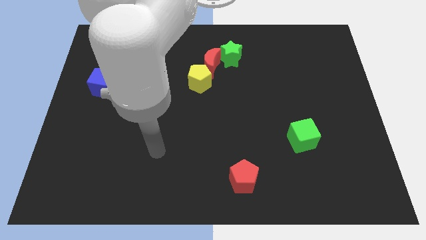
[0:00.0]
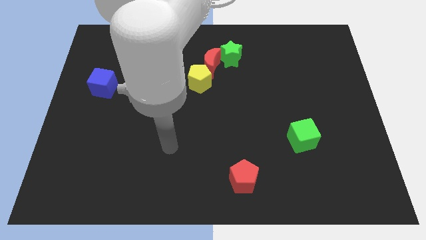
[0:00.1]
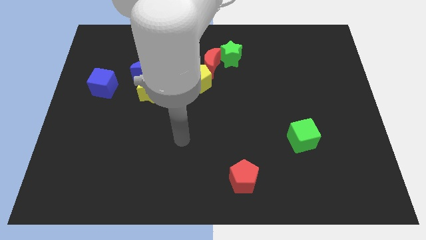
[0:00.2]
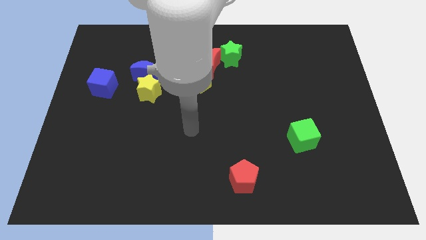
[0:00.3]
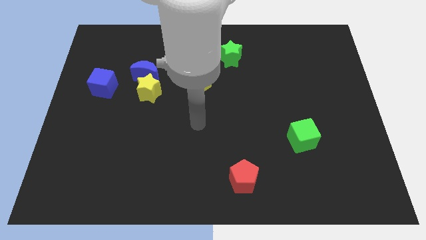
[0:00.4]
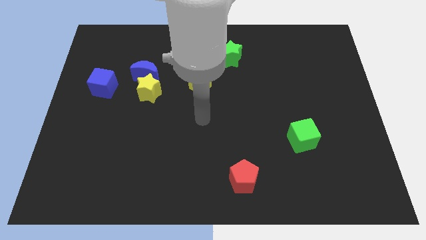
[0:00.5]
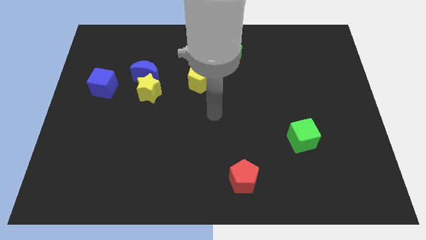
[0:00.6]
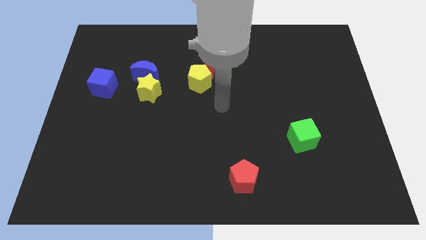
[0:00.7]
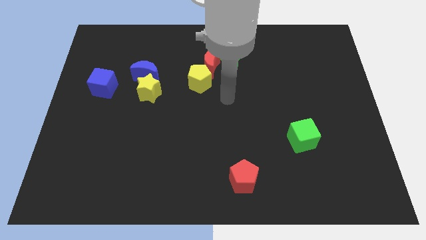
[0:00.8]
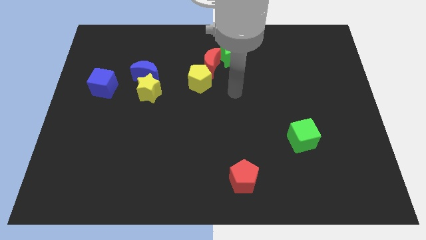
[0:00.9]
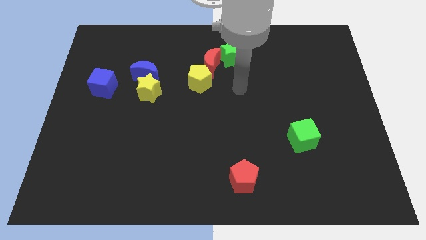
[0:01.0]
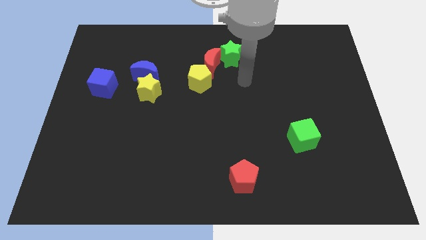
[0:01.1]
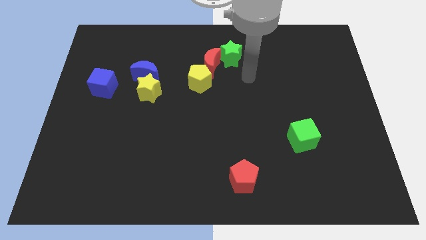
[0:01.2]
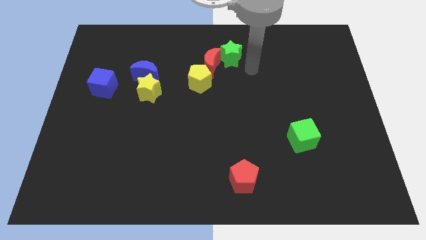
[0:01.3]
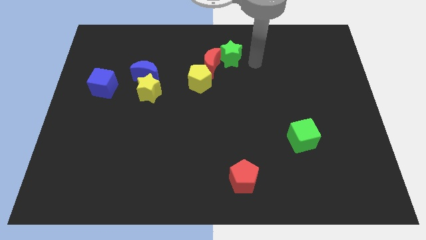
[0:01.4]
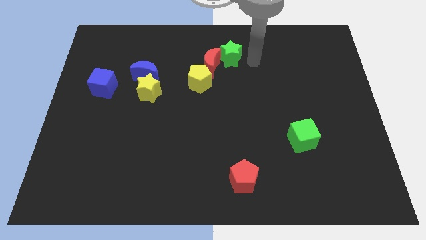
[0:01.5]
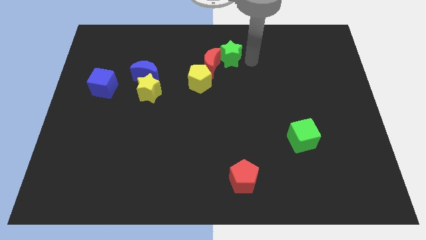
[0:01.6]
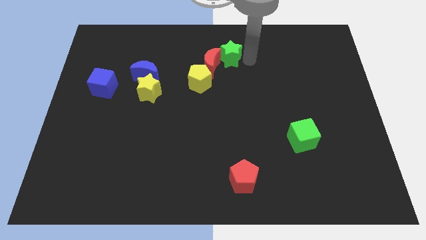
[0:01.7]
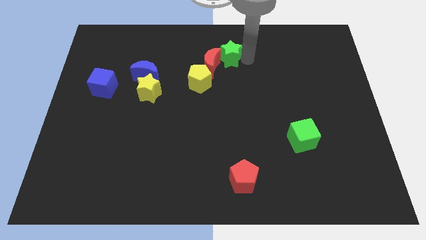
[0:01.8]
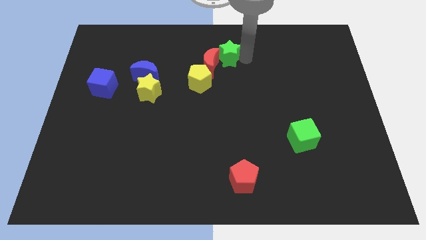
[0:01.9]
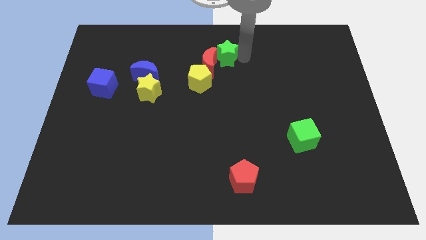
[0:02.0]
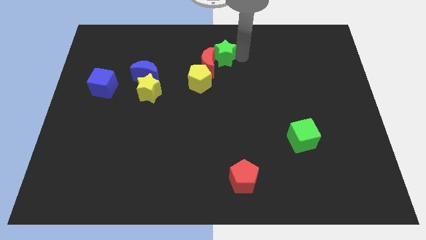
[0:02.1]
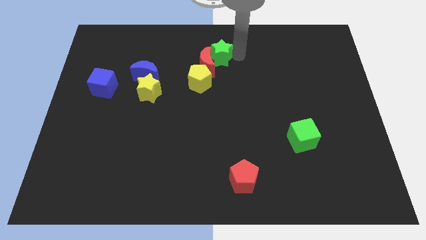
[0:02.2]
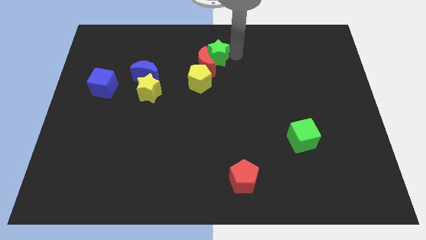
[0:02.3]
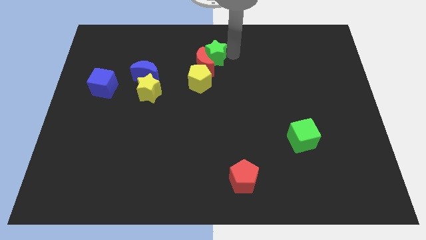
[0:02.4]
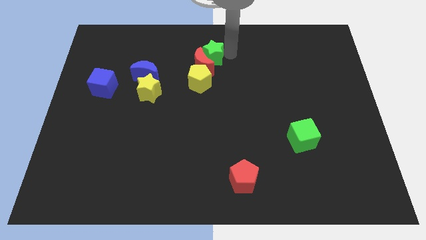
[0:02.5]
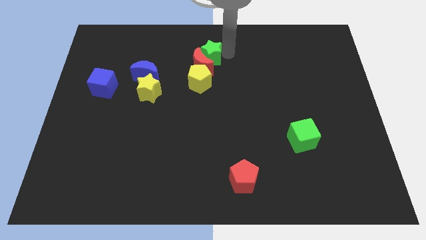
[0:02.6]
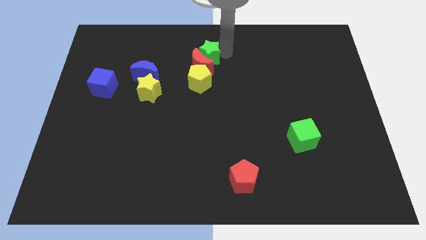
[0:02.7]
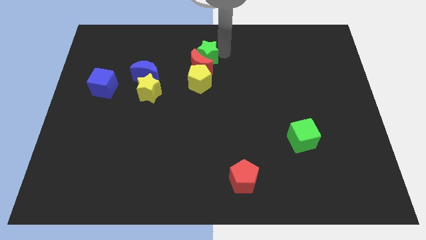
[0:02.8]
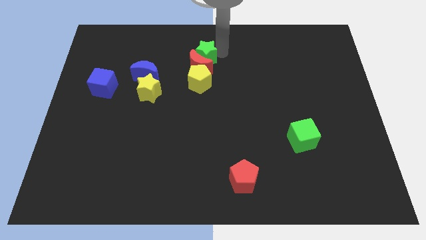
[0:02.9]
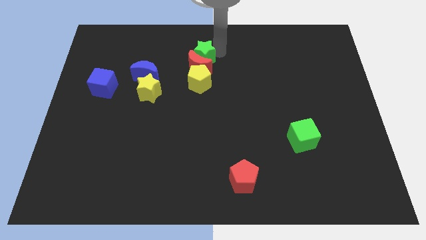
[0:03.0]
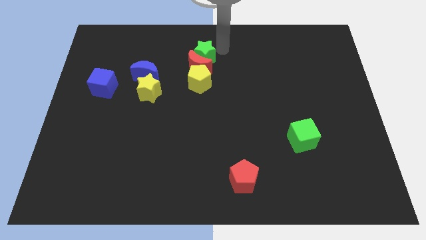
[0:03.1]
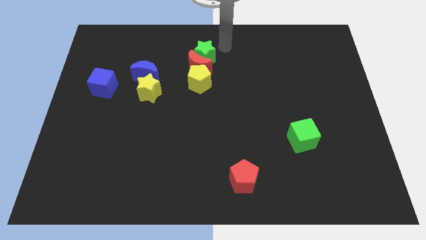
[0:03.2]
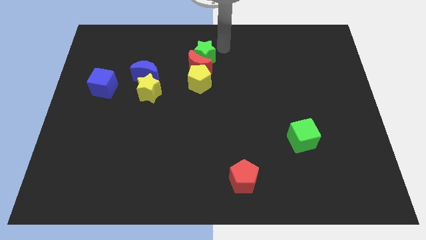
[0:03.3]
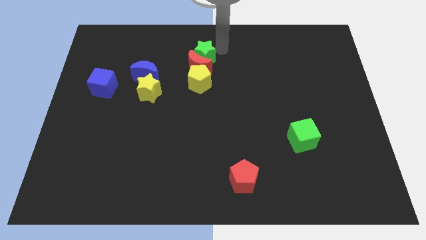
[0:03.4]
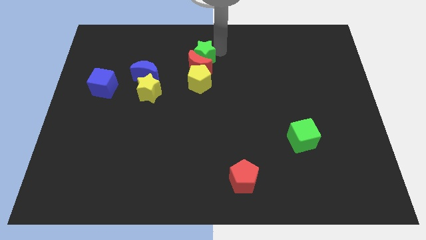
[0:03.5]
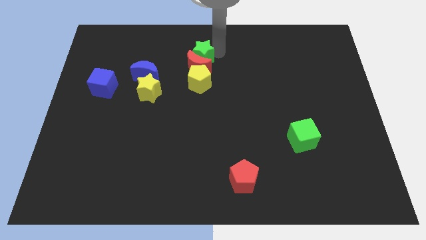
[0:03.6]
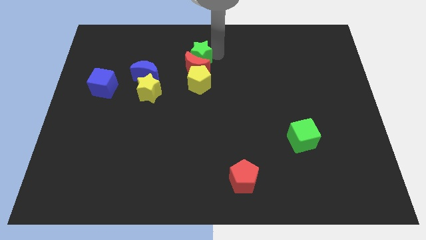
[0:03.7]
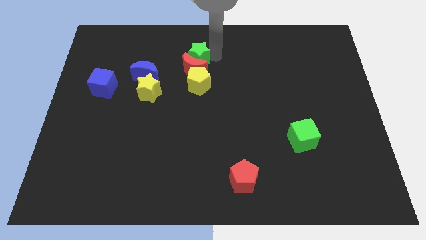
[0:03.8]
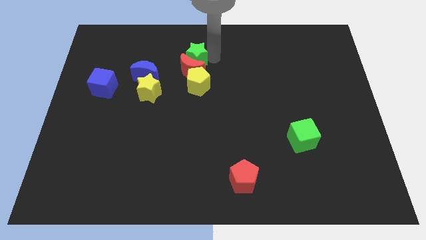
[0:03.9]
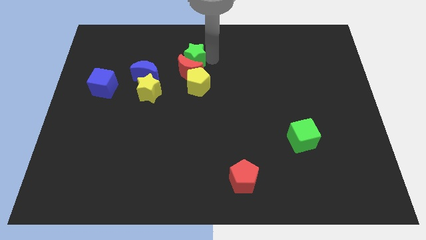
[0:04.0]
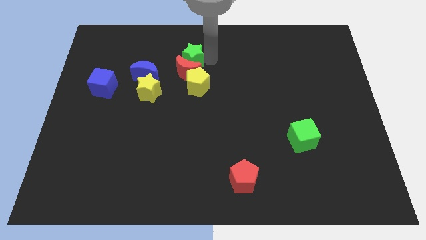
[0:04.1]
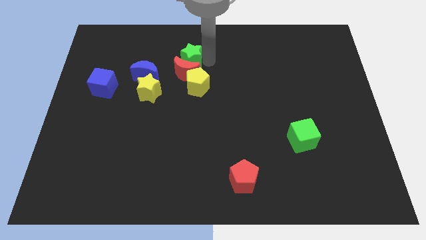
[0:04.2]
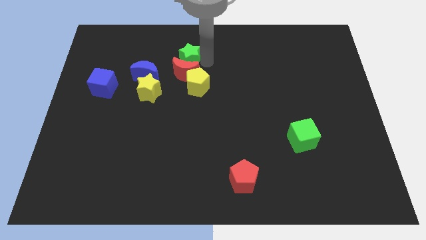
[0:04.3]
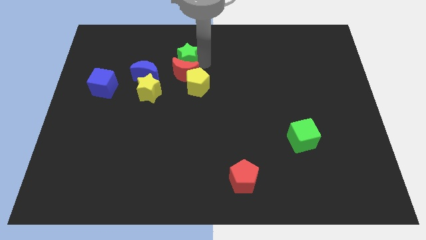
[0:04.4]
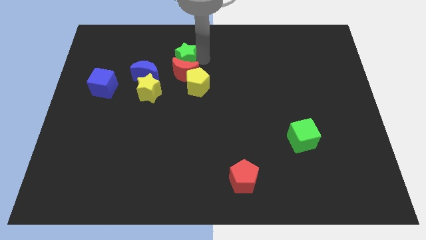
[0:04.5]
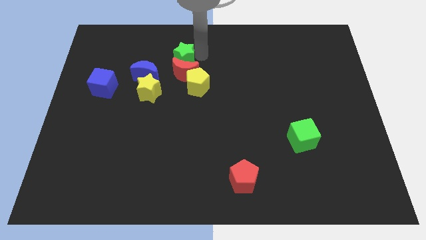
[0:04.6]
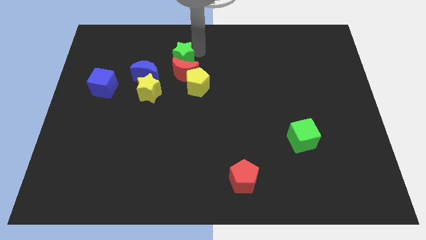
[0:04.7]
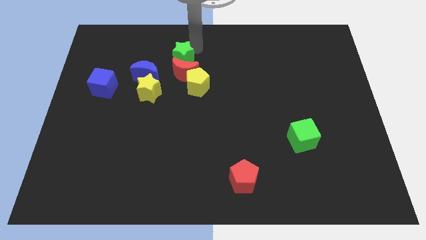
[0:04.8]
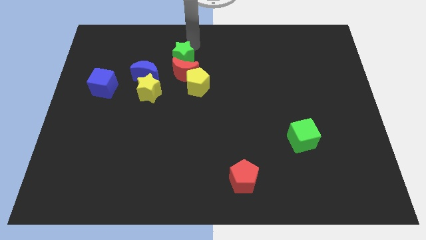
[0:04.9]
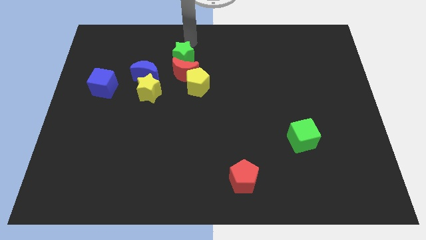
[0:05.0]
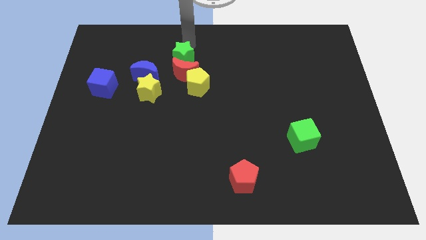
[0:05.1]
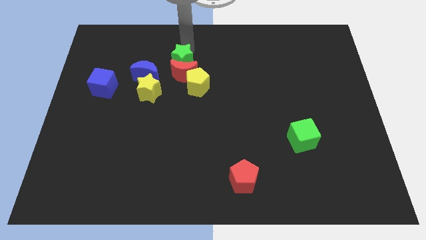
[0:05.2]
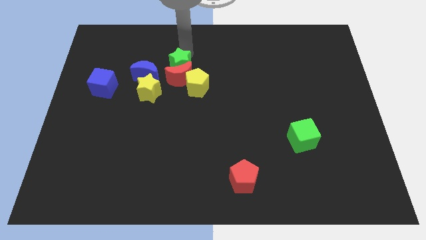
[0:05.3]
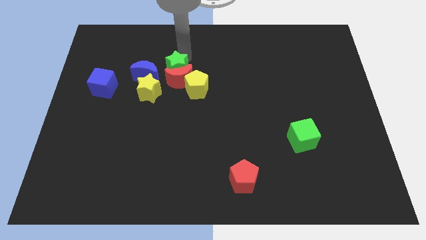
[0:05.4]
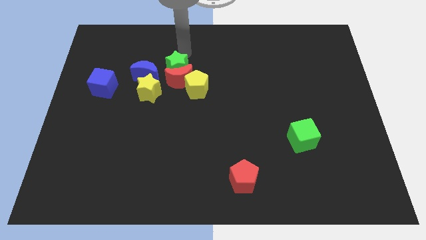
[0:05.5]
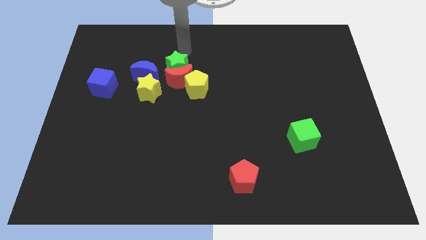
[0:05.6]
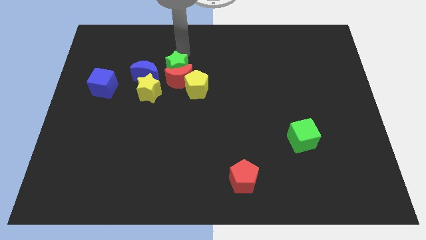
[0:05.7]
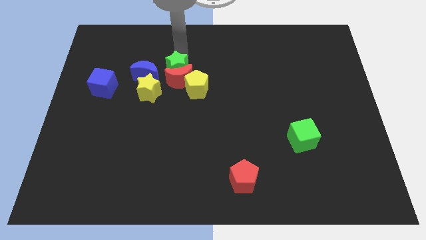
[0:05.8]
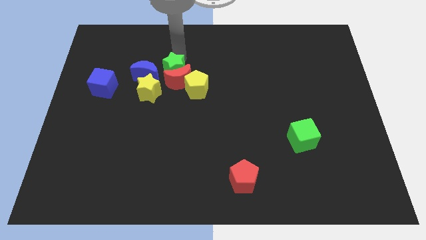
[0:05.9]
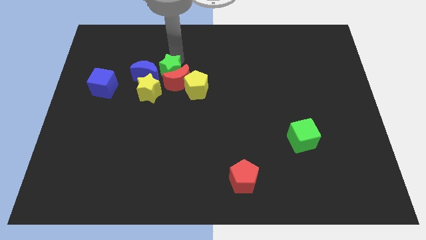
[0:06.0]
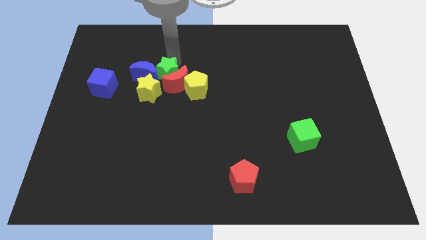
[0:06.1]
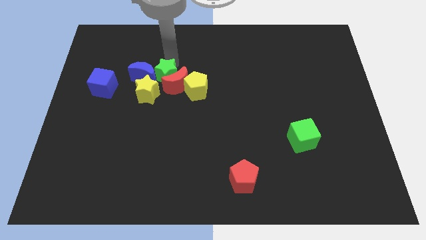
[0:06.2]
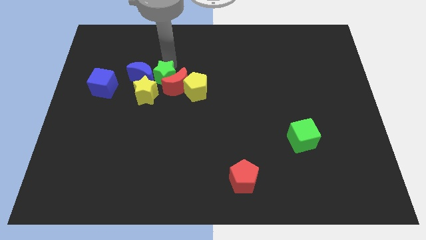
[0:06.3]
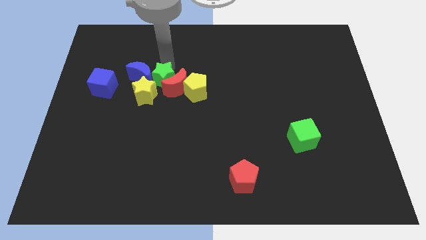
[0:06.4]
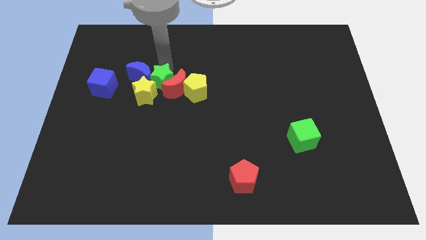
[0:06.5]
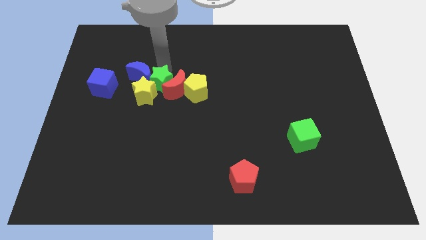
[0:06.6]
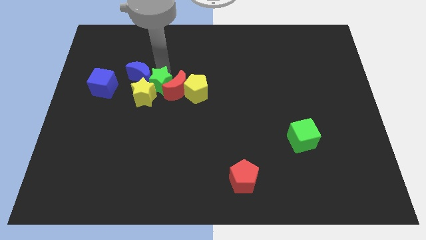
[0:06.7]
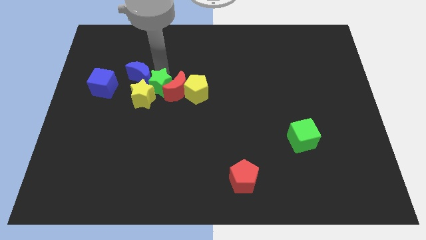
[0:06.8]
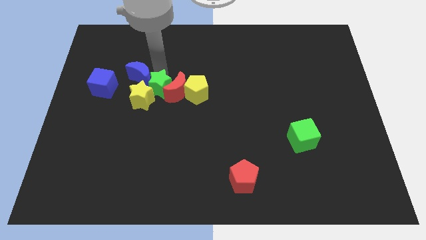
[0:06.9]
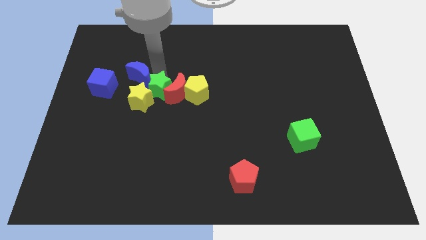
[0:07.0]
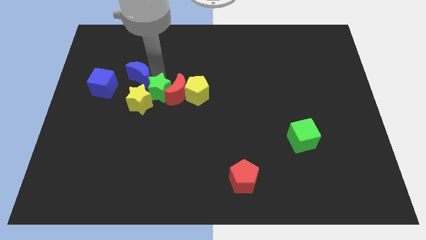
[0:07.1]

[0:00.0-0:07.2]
move the green star diagonally downwards and to the left

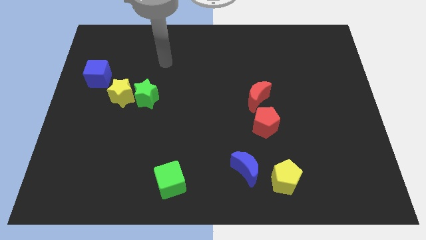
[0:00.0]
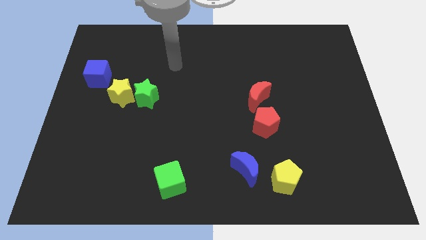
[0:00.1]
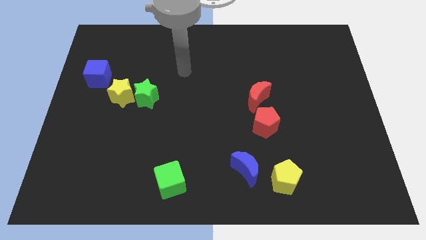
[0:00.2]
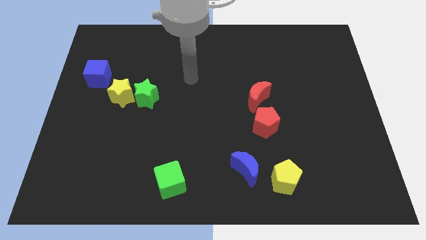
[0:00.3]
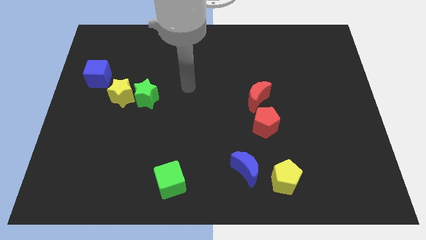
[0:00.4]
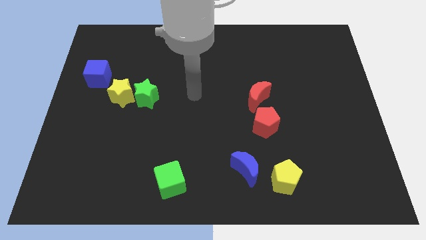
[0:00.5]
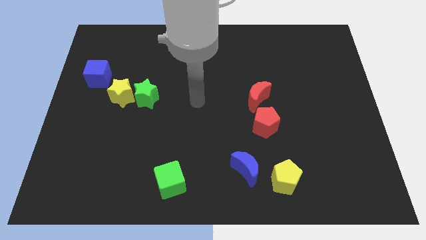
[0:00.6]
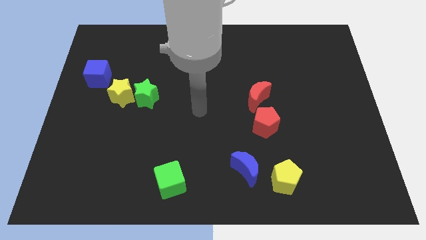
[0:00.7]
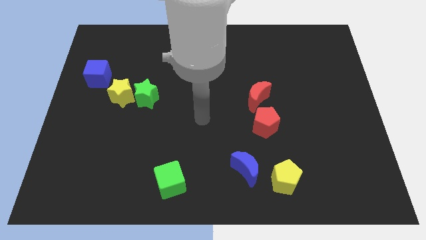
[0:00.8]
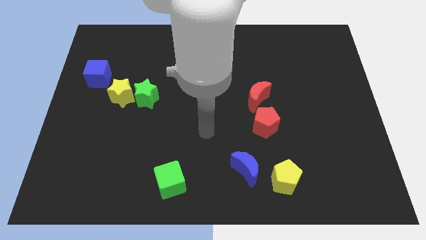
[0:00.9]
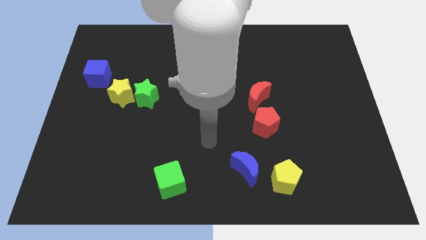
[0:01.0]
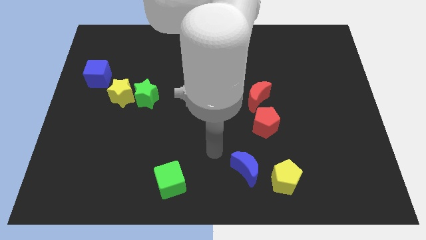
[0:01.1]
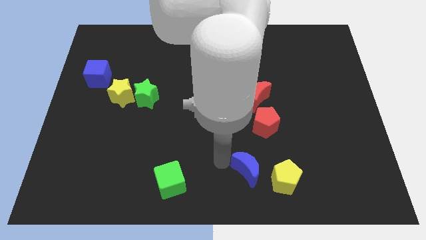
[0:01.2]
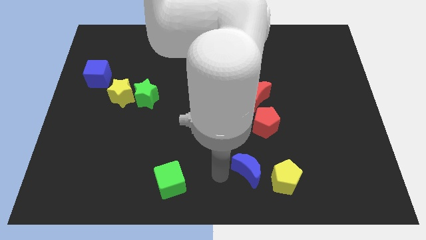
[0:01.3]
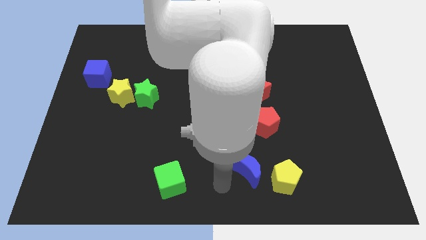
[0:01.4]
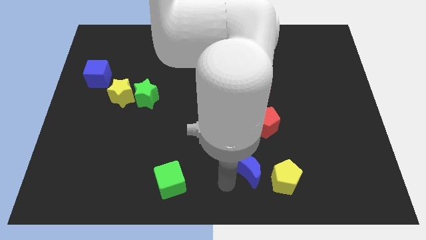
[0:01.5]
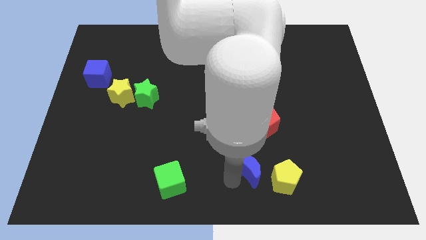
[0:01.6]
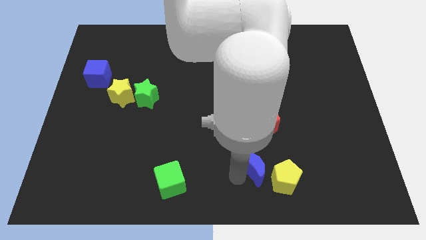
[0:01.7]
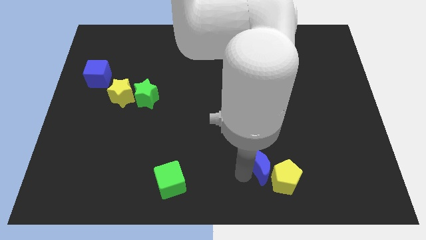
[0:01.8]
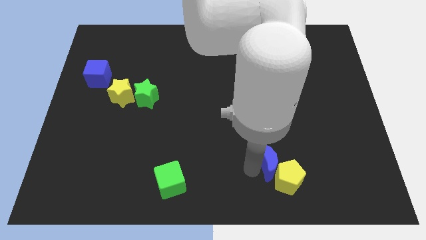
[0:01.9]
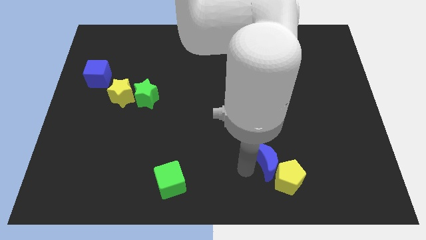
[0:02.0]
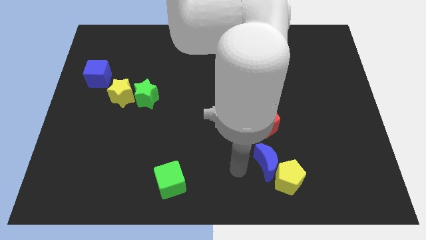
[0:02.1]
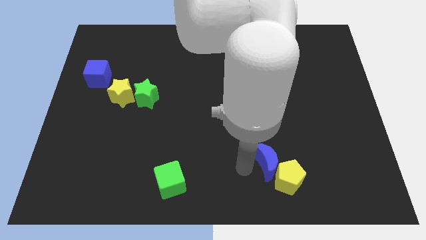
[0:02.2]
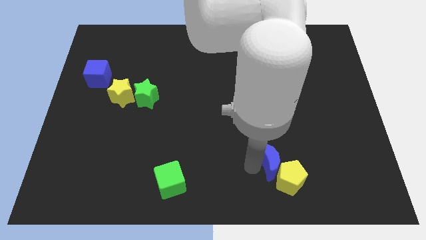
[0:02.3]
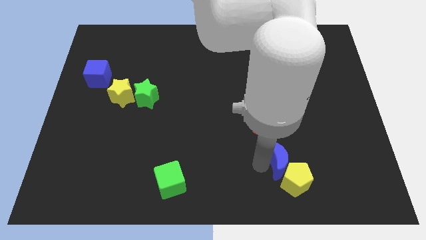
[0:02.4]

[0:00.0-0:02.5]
move the blue moon to the right a bit
